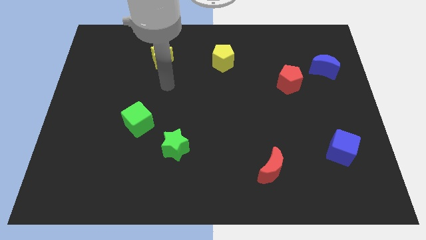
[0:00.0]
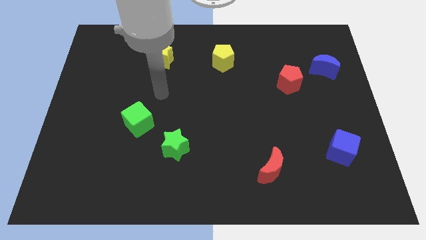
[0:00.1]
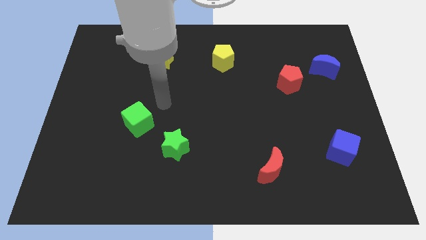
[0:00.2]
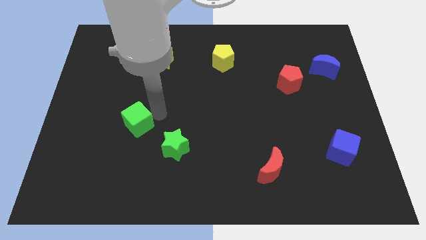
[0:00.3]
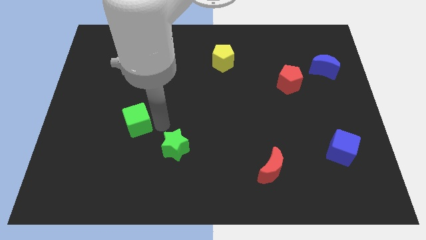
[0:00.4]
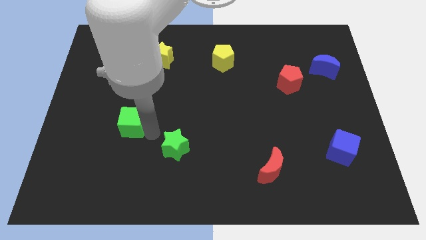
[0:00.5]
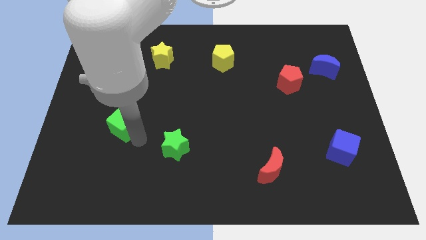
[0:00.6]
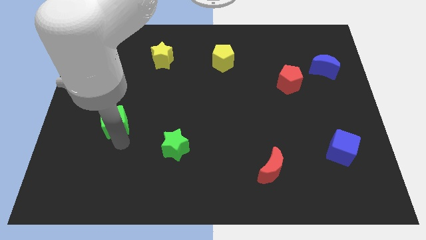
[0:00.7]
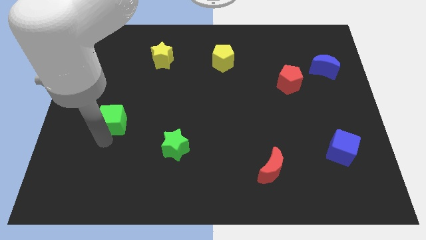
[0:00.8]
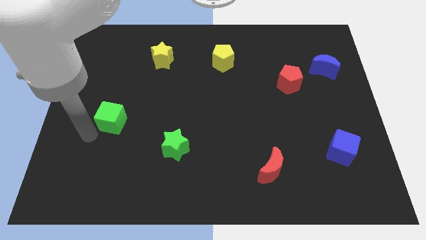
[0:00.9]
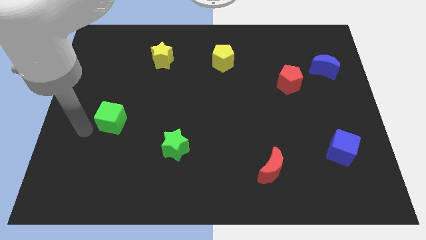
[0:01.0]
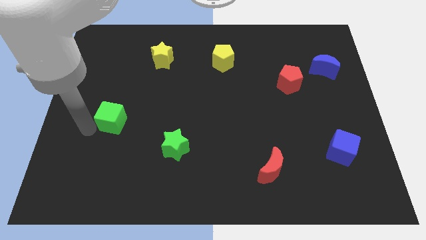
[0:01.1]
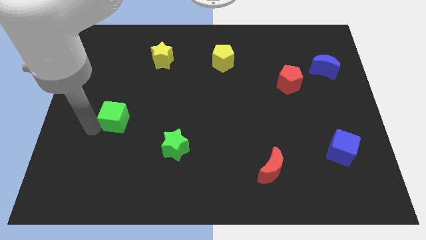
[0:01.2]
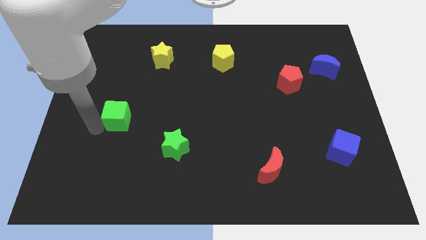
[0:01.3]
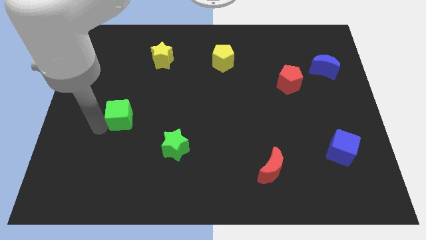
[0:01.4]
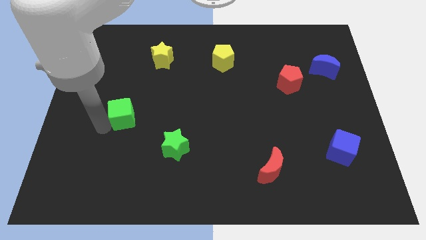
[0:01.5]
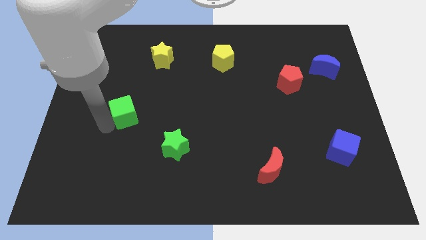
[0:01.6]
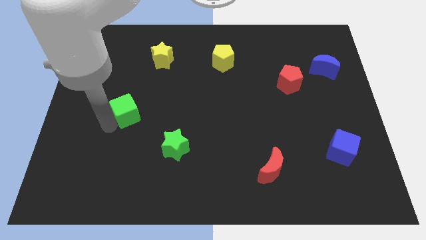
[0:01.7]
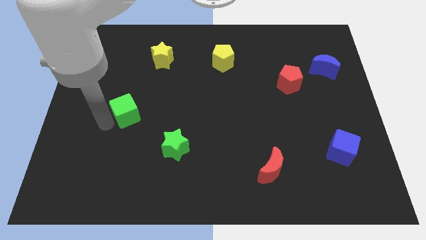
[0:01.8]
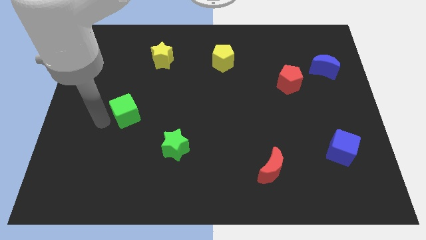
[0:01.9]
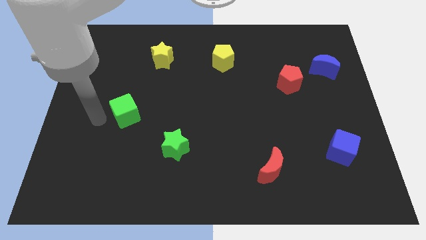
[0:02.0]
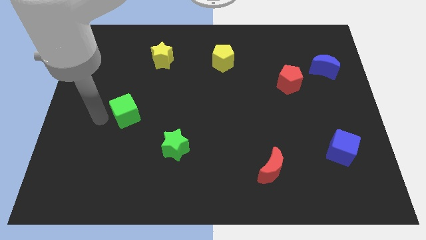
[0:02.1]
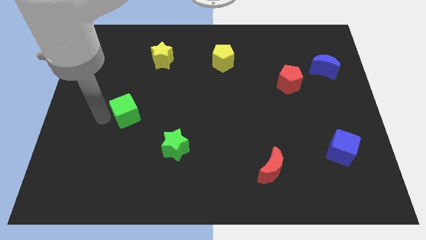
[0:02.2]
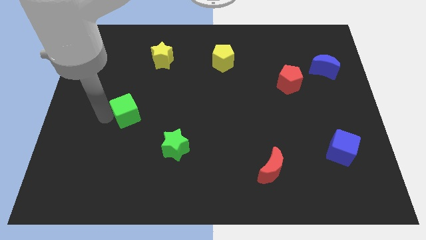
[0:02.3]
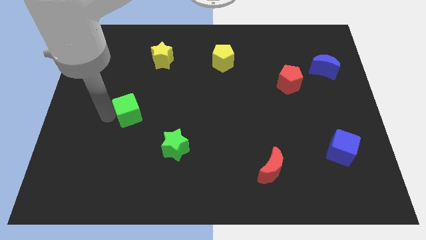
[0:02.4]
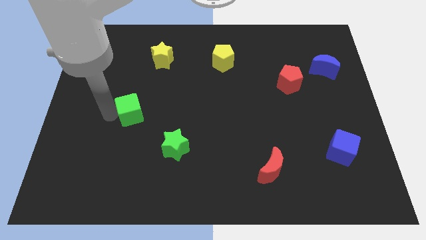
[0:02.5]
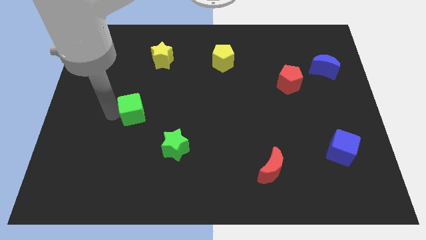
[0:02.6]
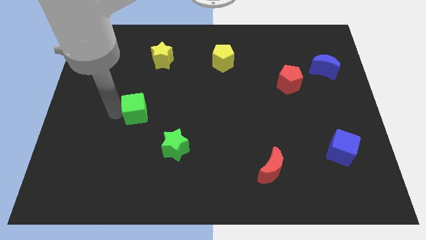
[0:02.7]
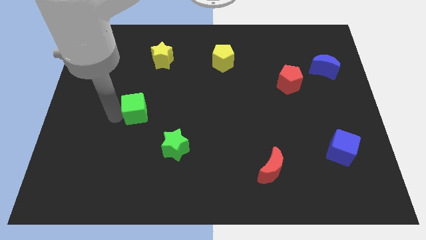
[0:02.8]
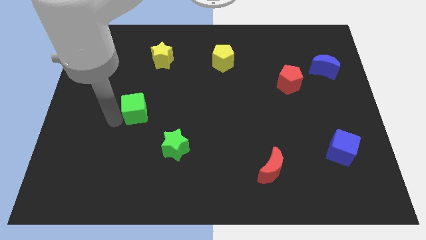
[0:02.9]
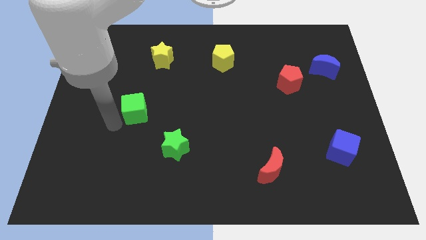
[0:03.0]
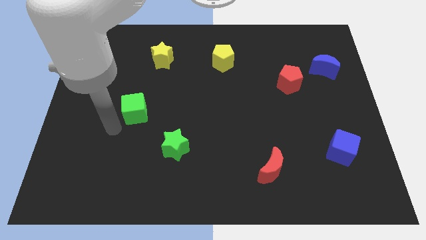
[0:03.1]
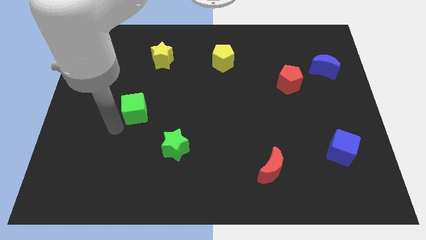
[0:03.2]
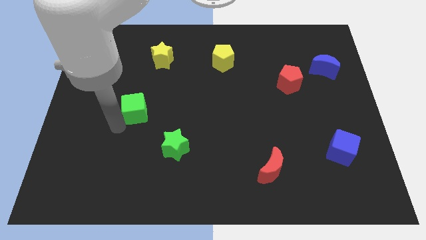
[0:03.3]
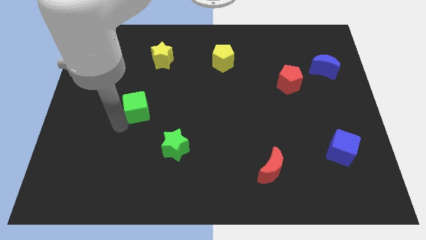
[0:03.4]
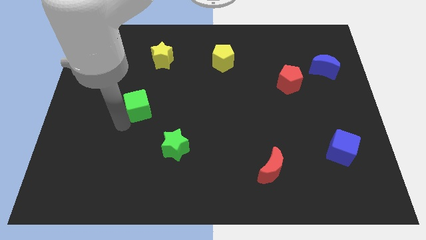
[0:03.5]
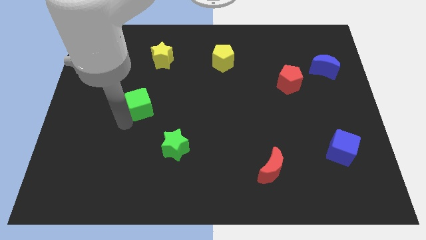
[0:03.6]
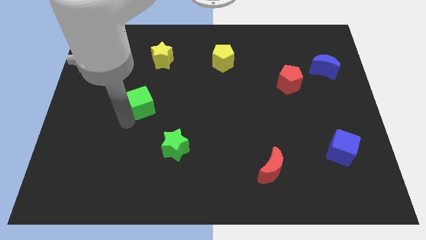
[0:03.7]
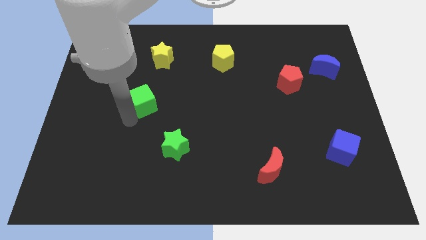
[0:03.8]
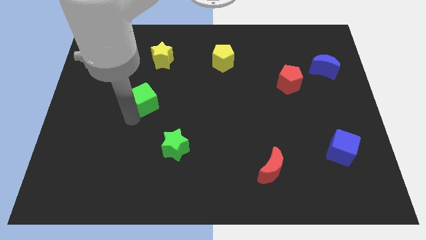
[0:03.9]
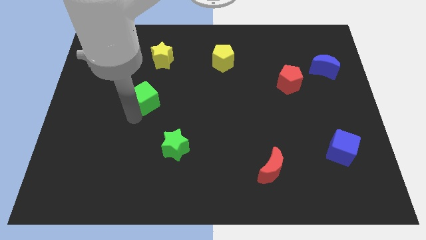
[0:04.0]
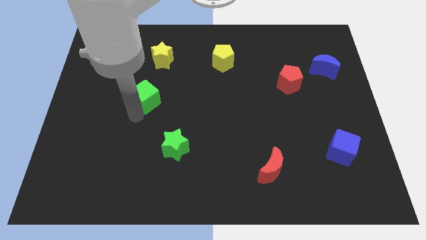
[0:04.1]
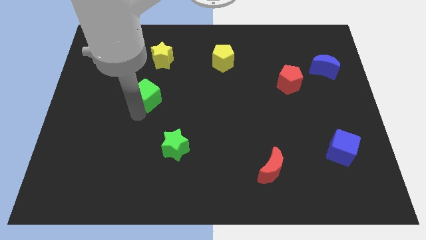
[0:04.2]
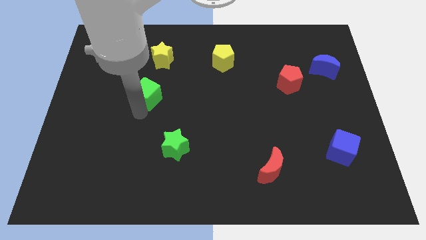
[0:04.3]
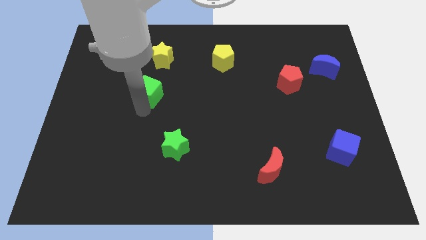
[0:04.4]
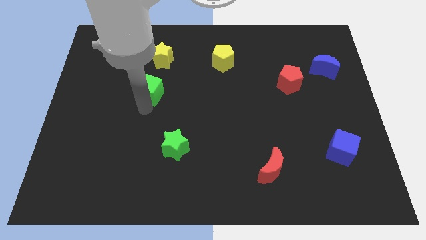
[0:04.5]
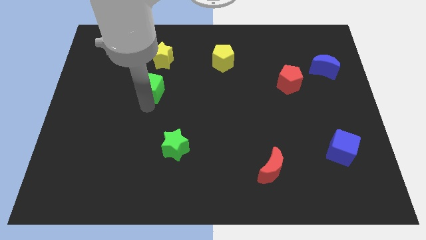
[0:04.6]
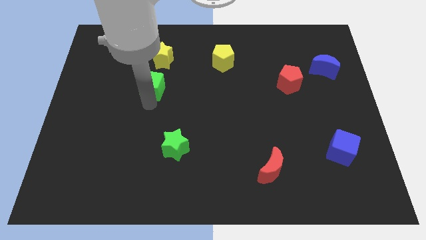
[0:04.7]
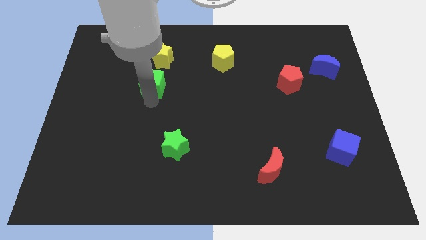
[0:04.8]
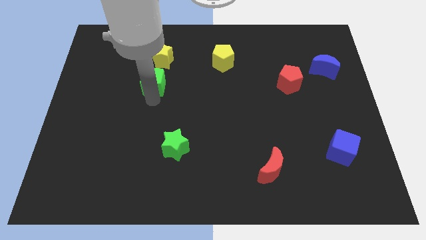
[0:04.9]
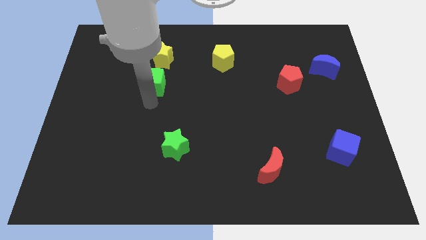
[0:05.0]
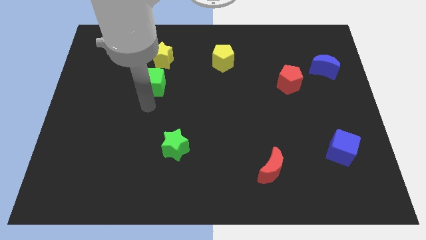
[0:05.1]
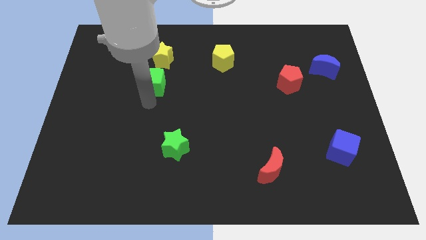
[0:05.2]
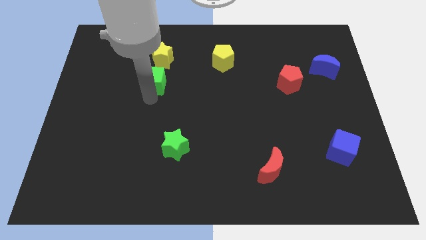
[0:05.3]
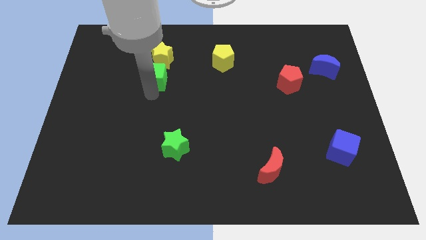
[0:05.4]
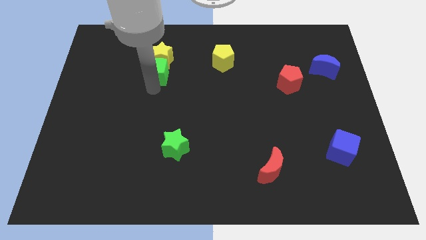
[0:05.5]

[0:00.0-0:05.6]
put the green cube towards the yellow star

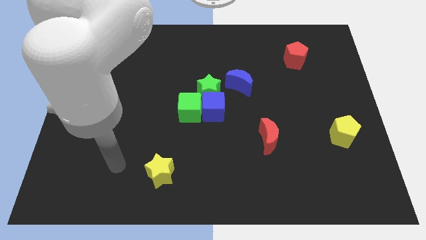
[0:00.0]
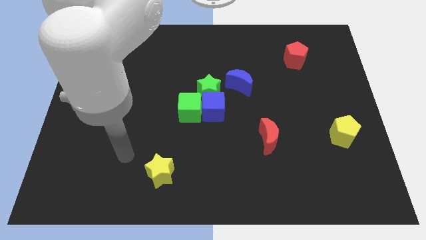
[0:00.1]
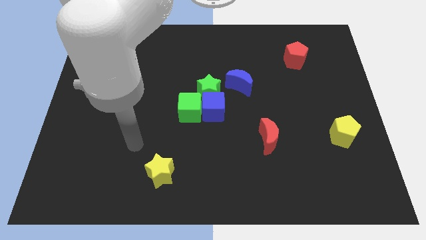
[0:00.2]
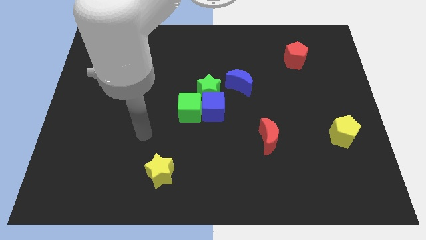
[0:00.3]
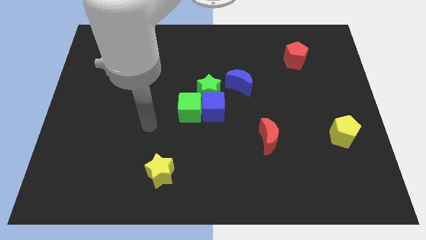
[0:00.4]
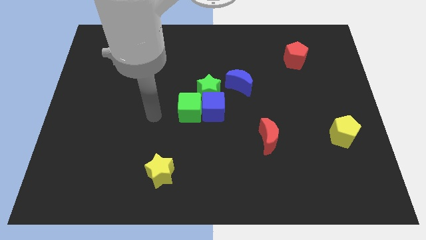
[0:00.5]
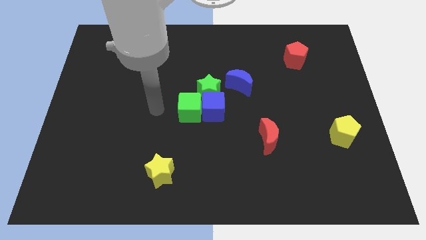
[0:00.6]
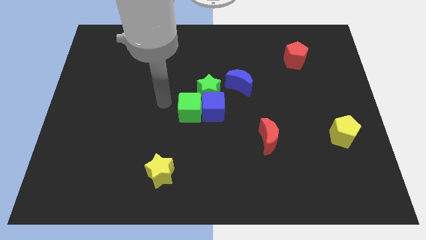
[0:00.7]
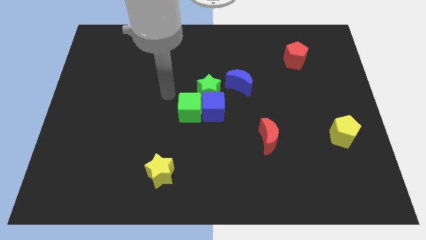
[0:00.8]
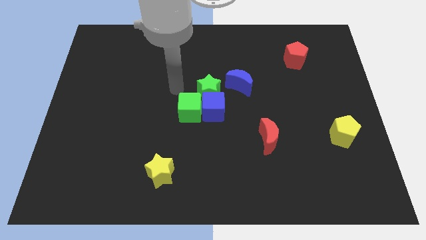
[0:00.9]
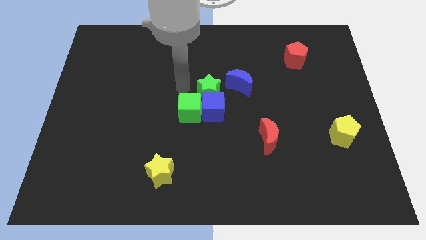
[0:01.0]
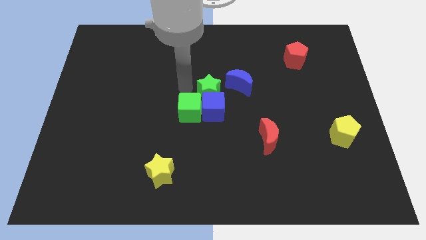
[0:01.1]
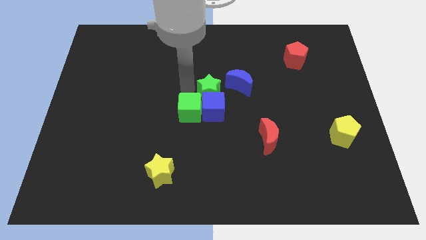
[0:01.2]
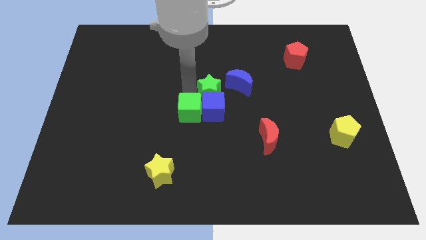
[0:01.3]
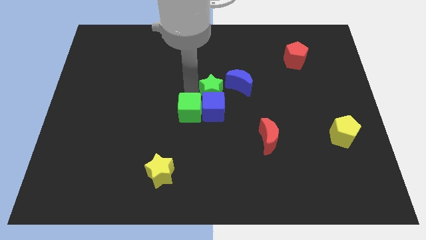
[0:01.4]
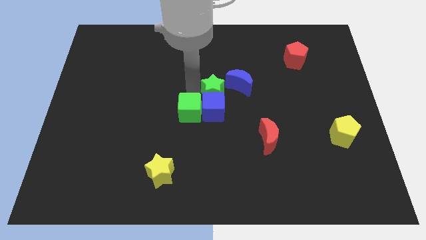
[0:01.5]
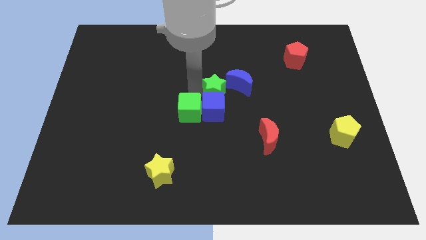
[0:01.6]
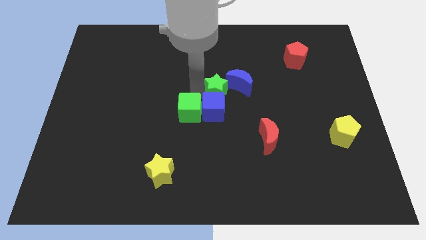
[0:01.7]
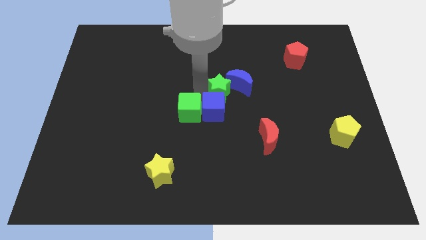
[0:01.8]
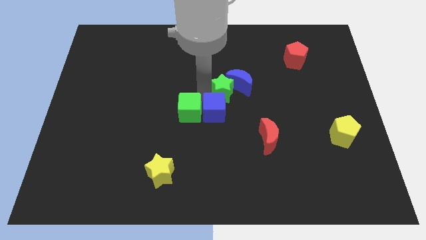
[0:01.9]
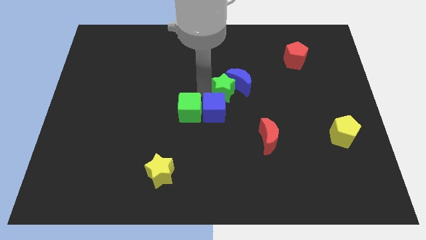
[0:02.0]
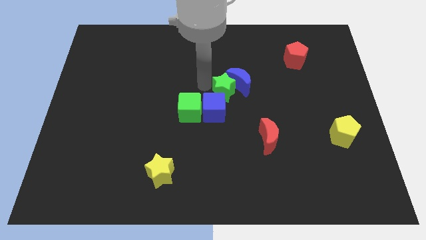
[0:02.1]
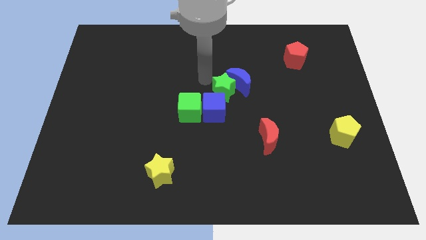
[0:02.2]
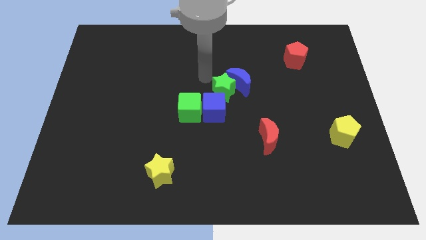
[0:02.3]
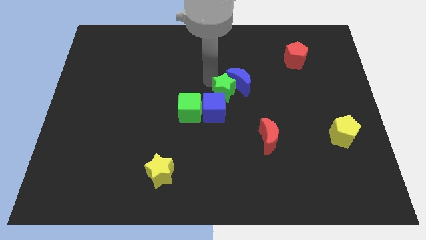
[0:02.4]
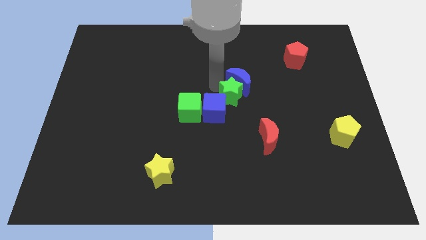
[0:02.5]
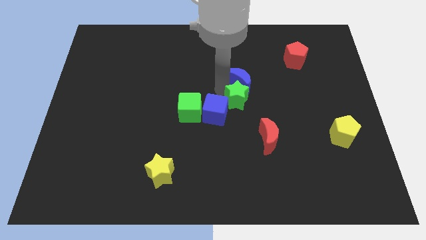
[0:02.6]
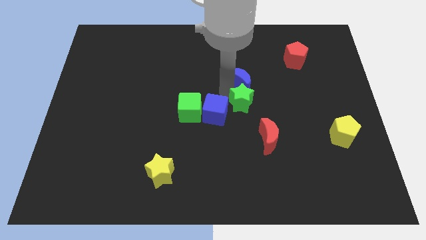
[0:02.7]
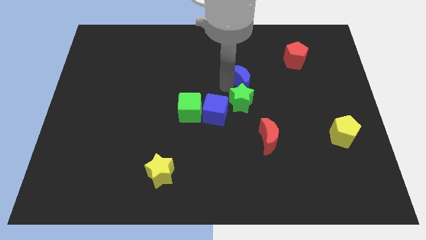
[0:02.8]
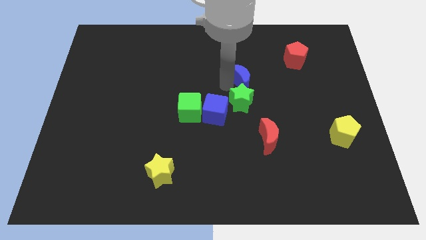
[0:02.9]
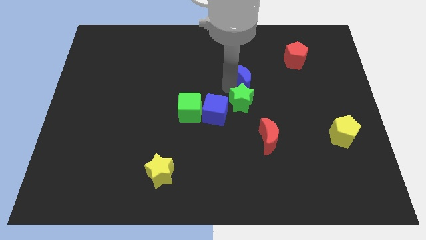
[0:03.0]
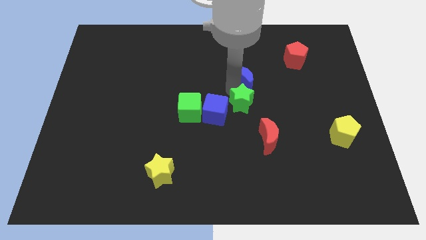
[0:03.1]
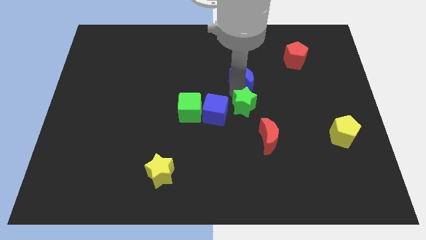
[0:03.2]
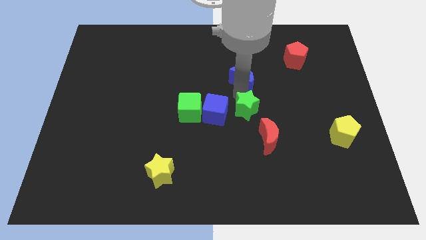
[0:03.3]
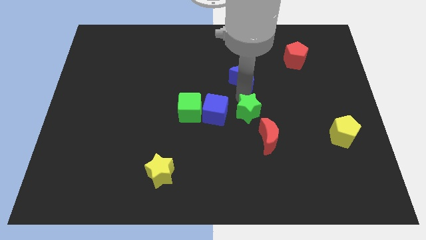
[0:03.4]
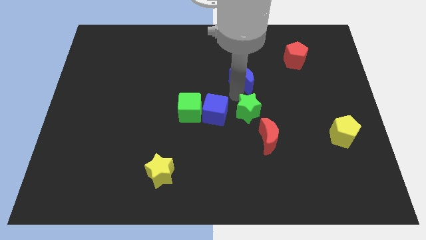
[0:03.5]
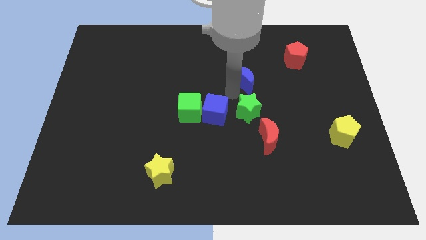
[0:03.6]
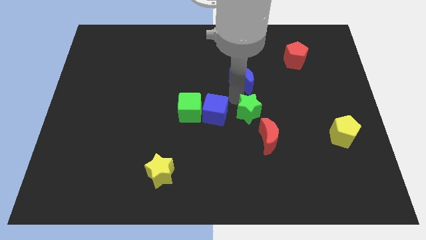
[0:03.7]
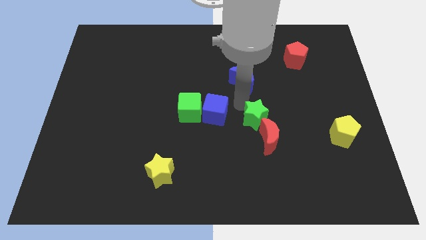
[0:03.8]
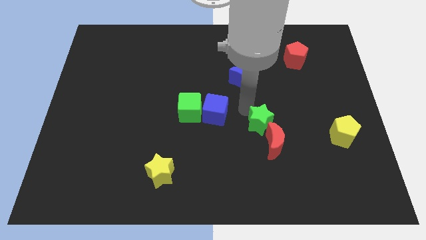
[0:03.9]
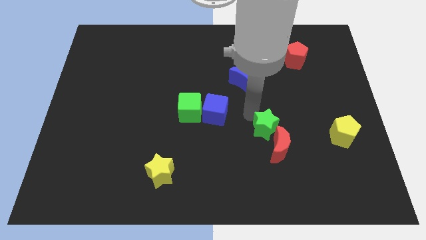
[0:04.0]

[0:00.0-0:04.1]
move the green star to the red moon
